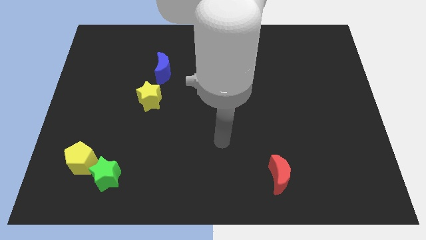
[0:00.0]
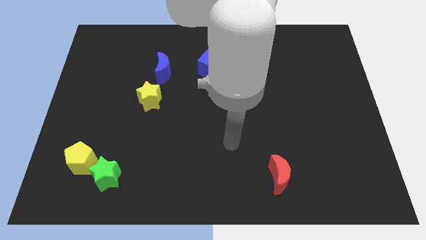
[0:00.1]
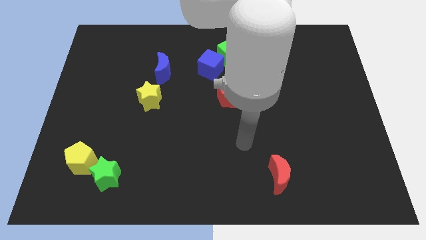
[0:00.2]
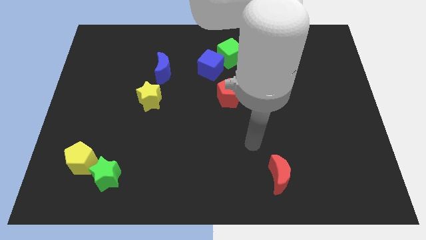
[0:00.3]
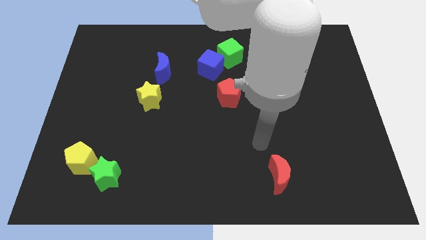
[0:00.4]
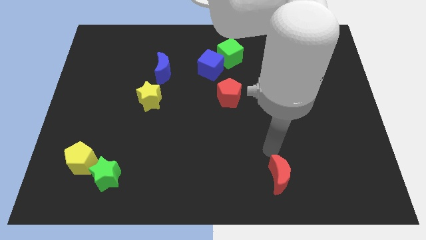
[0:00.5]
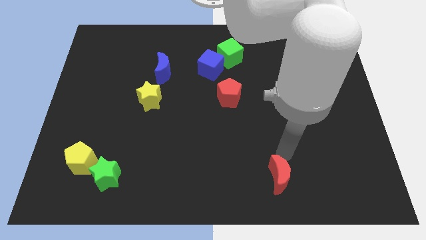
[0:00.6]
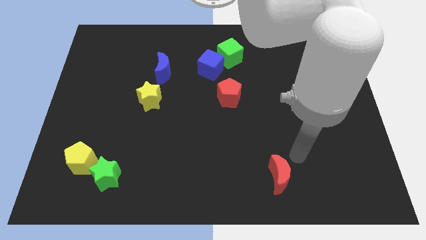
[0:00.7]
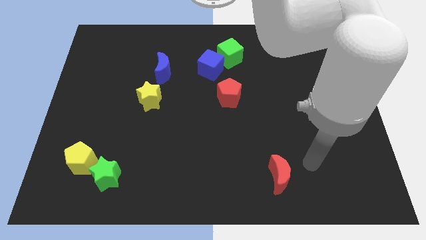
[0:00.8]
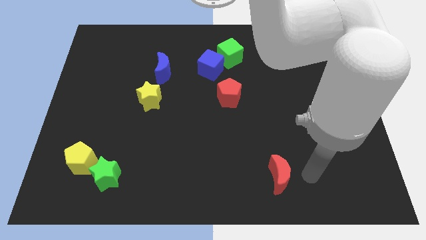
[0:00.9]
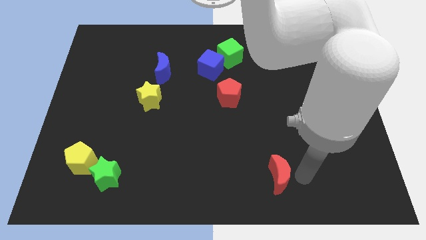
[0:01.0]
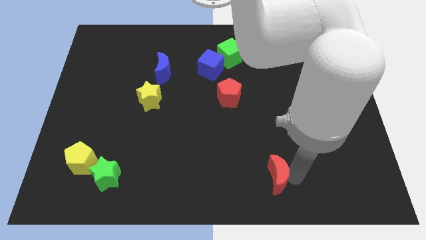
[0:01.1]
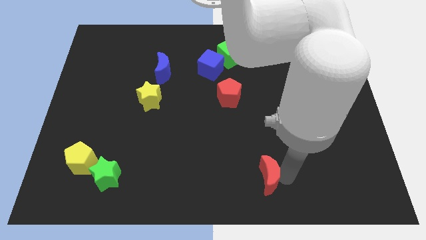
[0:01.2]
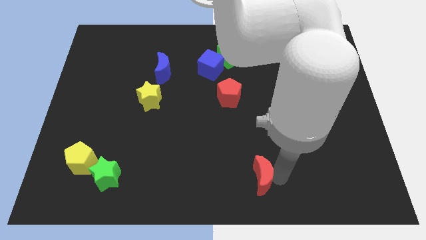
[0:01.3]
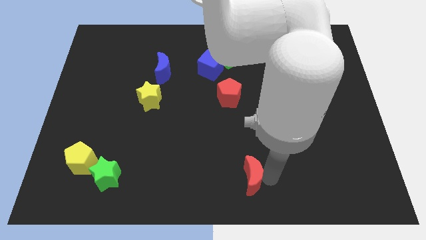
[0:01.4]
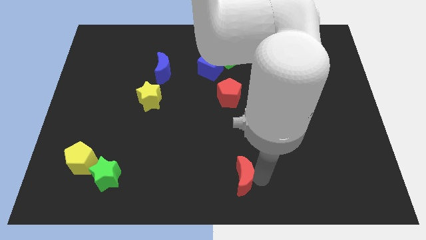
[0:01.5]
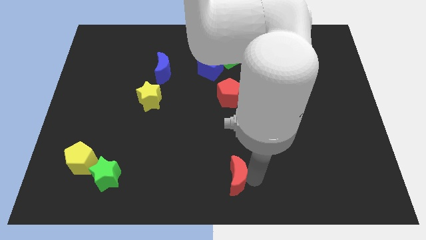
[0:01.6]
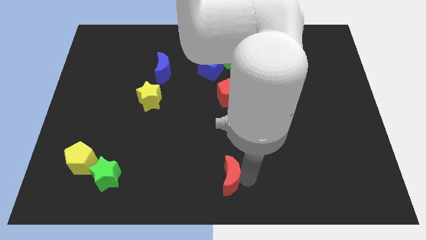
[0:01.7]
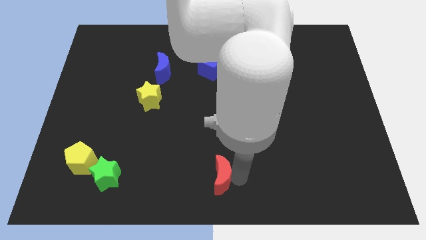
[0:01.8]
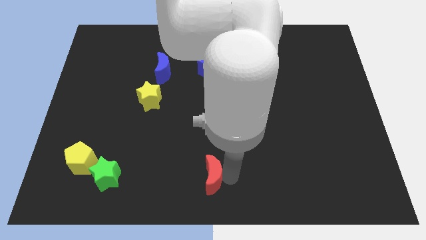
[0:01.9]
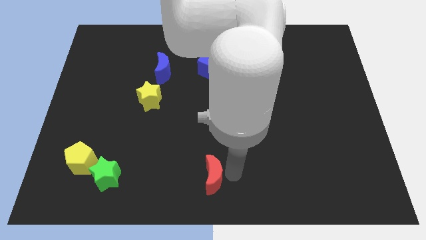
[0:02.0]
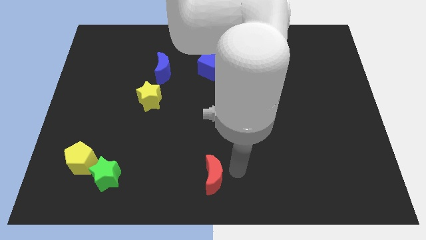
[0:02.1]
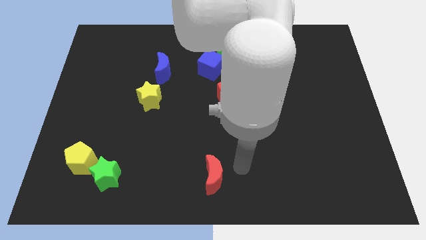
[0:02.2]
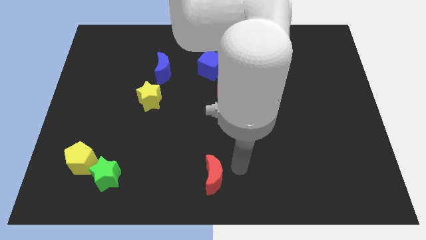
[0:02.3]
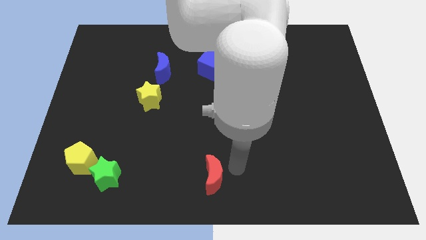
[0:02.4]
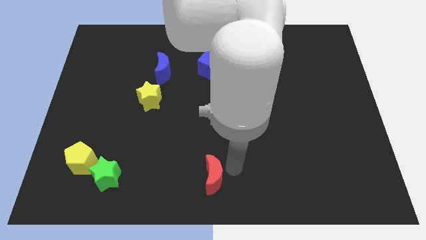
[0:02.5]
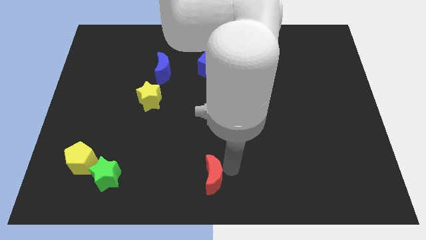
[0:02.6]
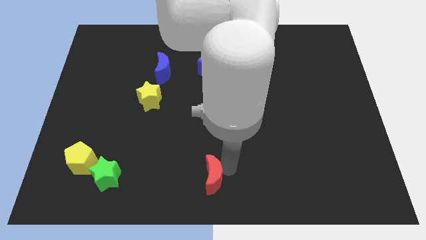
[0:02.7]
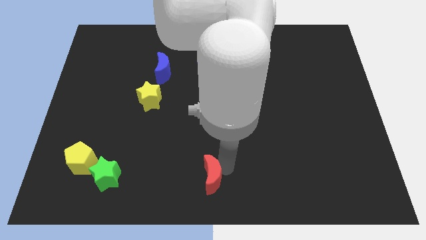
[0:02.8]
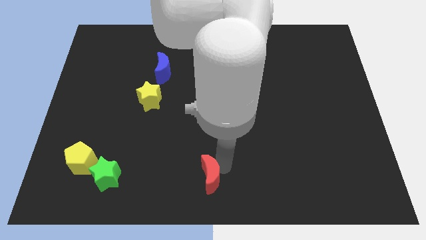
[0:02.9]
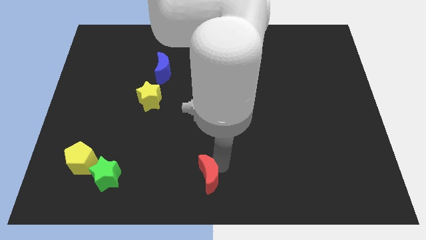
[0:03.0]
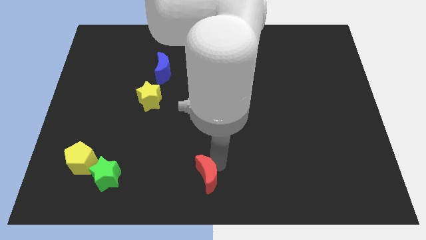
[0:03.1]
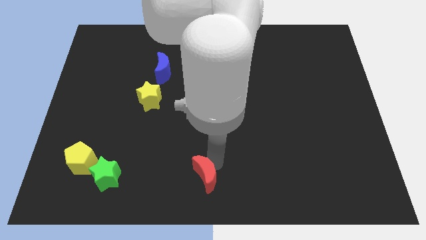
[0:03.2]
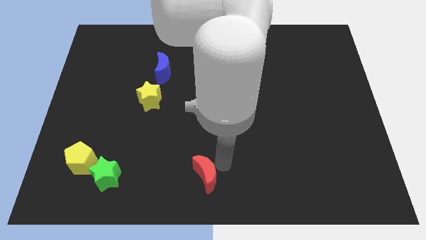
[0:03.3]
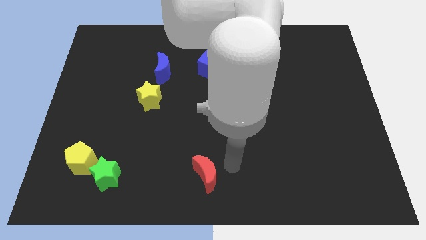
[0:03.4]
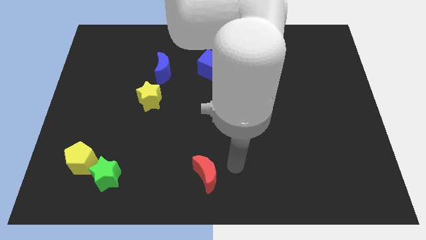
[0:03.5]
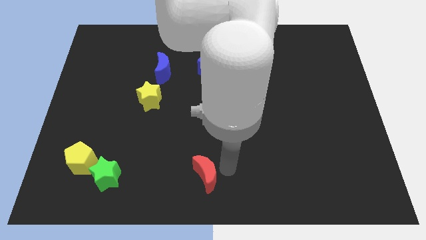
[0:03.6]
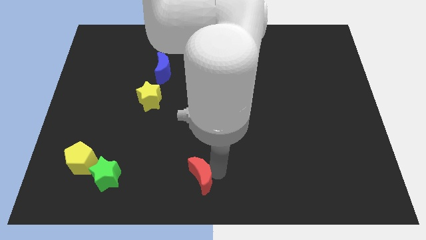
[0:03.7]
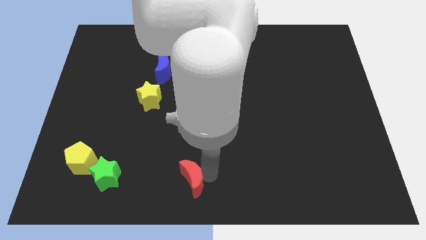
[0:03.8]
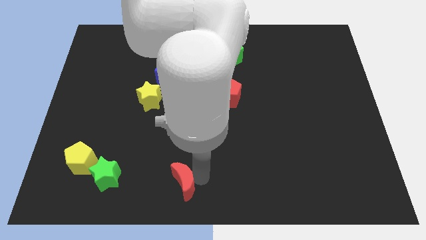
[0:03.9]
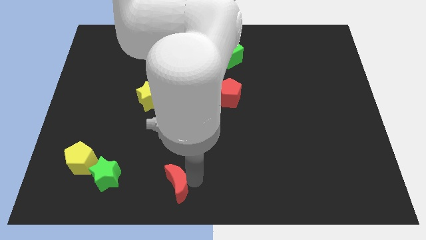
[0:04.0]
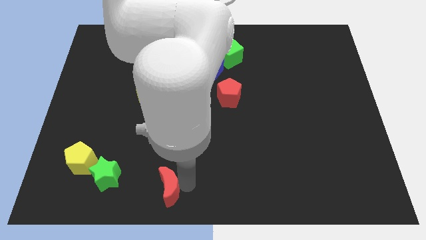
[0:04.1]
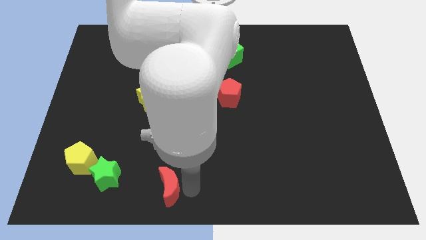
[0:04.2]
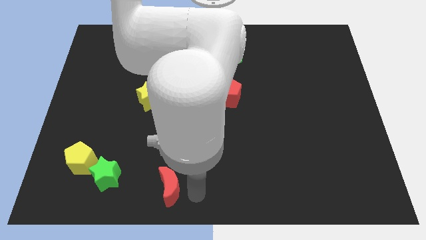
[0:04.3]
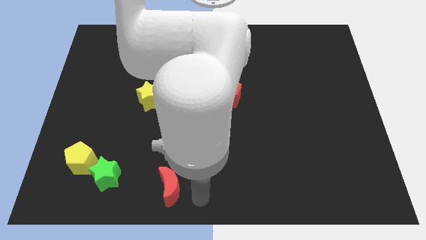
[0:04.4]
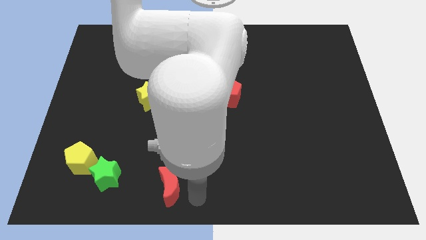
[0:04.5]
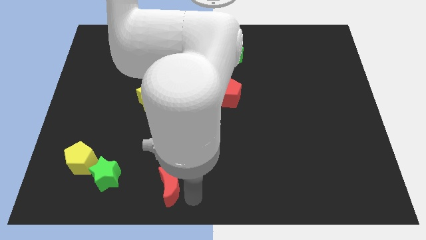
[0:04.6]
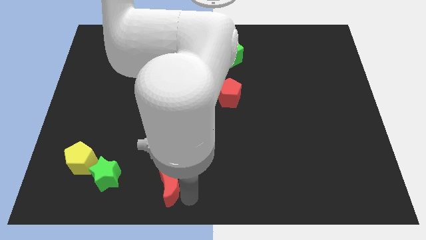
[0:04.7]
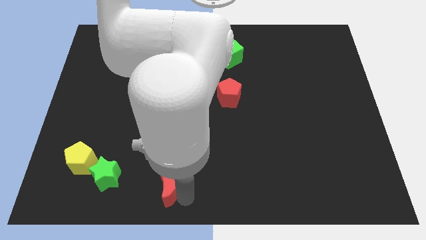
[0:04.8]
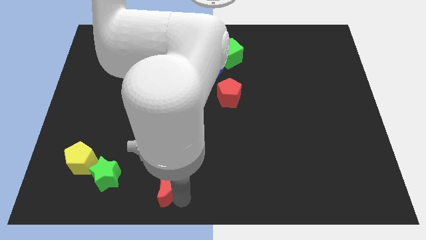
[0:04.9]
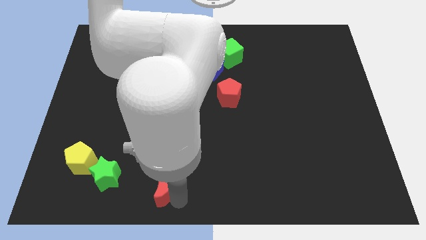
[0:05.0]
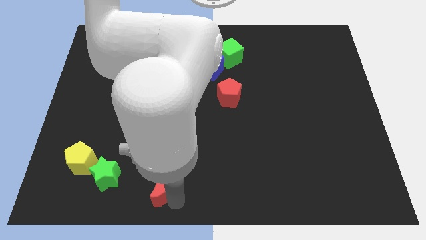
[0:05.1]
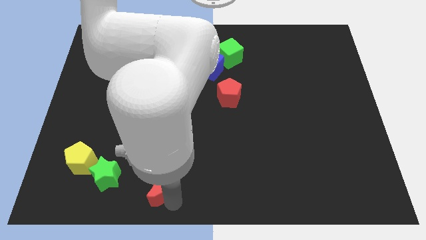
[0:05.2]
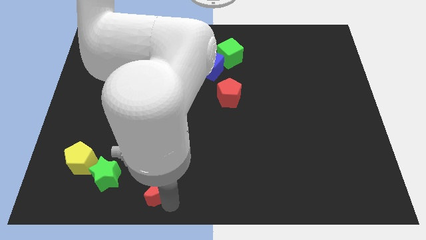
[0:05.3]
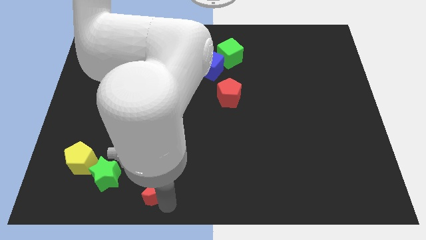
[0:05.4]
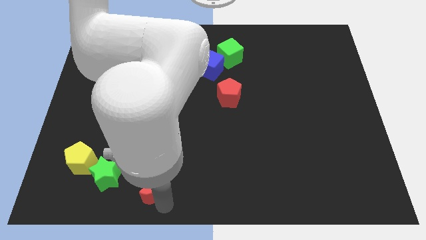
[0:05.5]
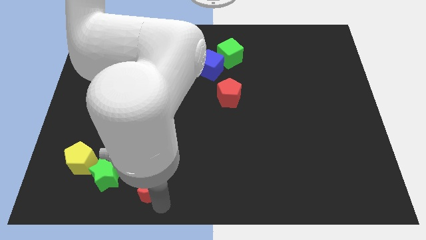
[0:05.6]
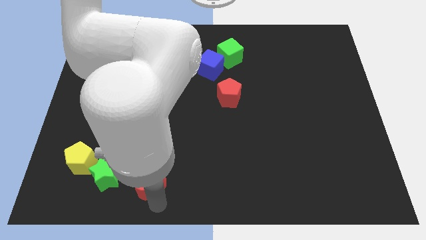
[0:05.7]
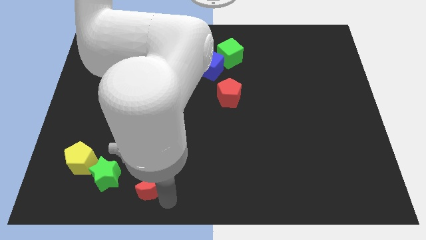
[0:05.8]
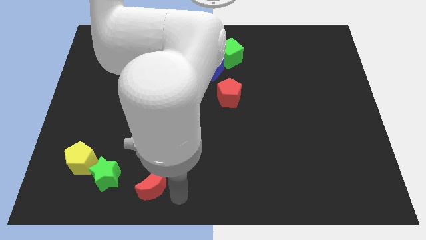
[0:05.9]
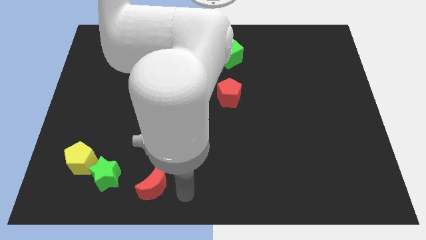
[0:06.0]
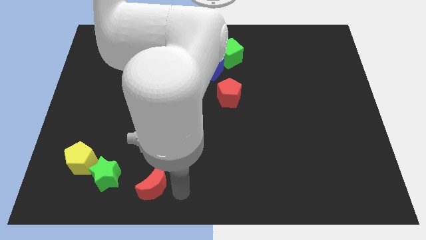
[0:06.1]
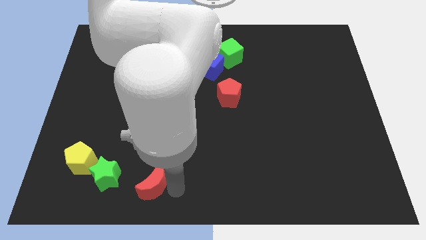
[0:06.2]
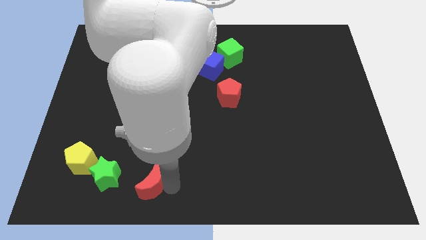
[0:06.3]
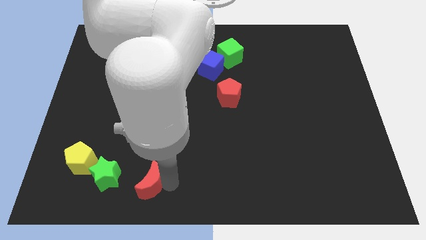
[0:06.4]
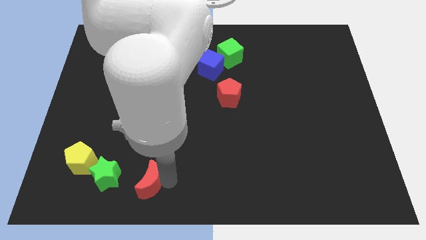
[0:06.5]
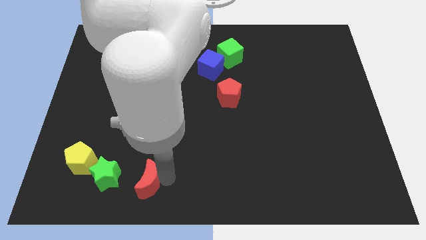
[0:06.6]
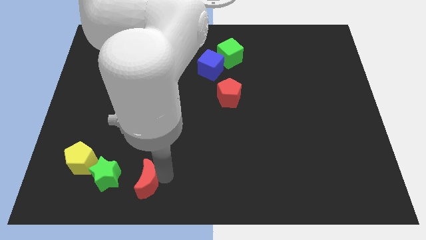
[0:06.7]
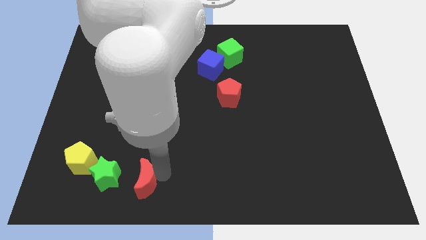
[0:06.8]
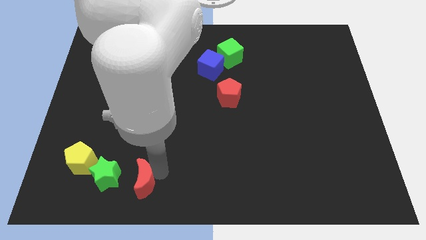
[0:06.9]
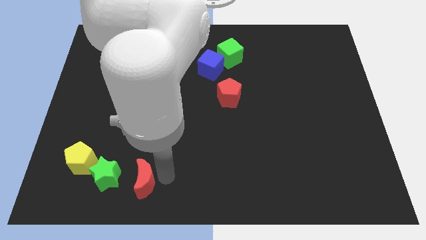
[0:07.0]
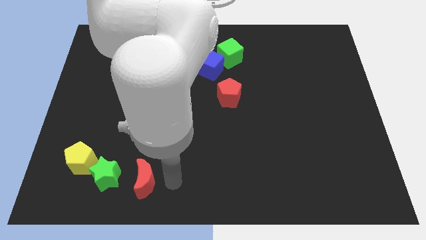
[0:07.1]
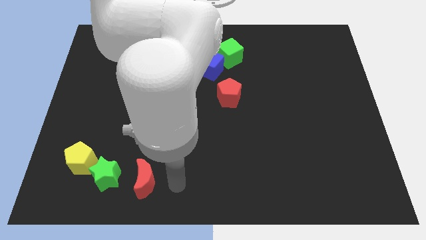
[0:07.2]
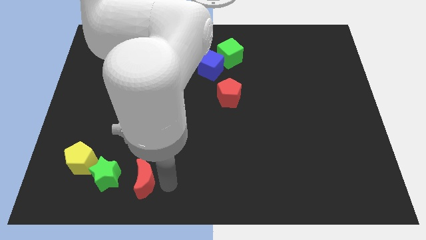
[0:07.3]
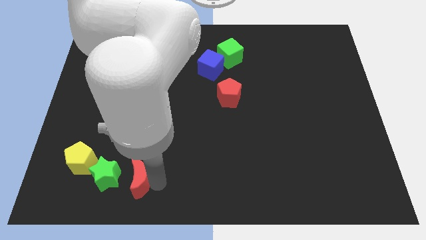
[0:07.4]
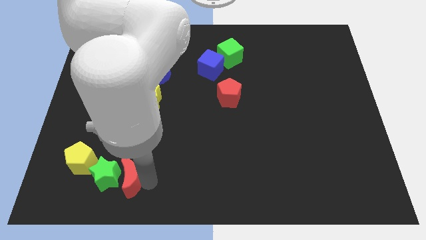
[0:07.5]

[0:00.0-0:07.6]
put the red moon towards the green star
